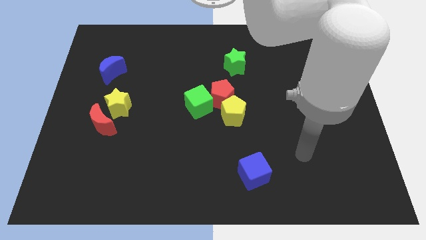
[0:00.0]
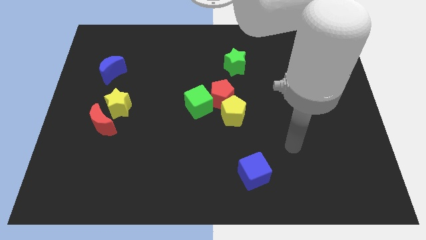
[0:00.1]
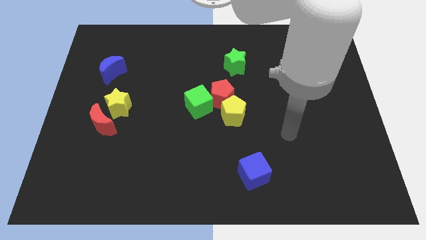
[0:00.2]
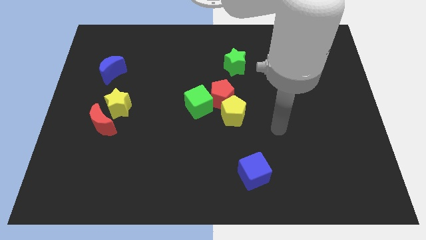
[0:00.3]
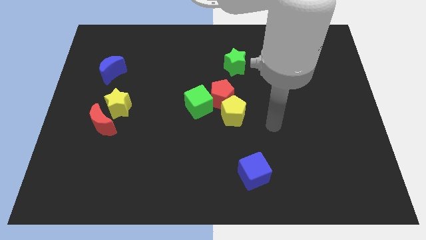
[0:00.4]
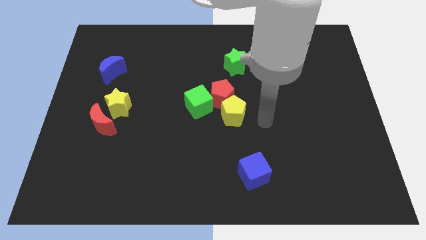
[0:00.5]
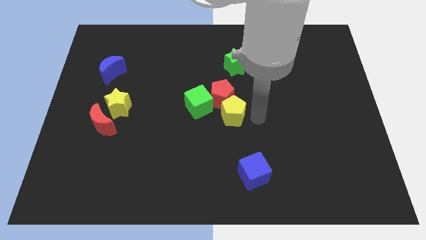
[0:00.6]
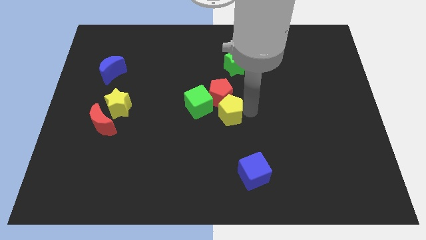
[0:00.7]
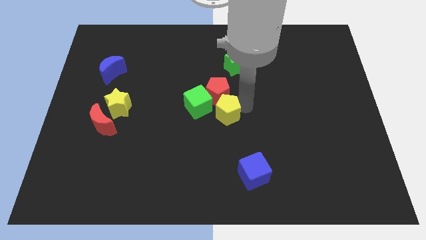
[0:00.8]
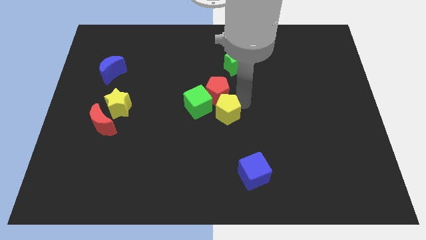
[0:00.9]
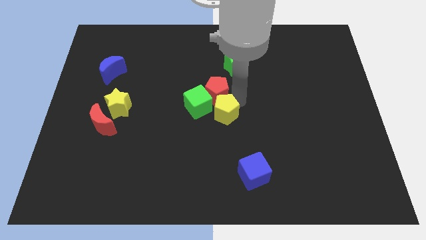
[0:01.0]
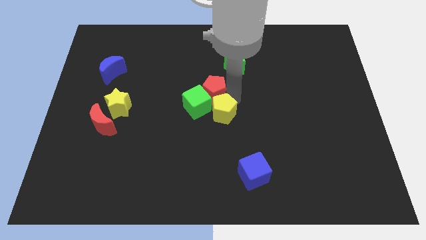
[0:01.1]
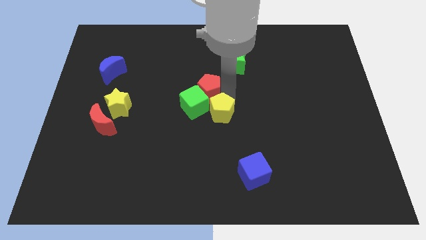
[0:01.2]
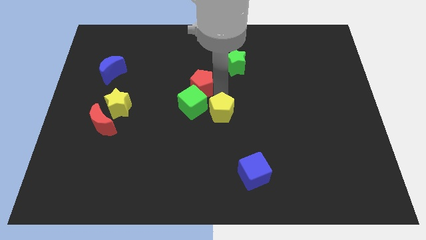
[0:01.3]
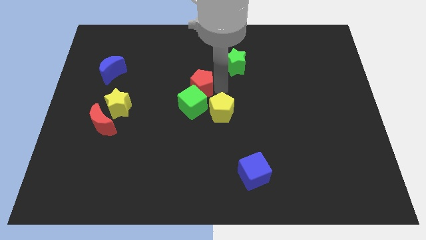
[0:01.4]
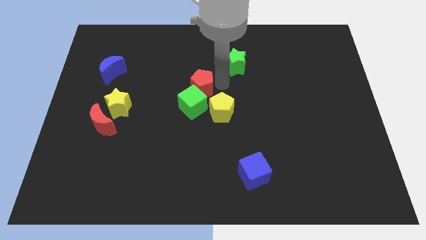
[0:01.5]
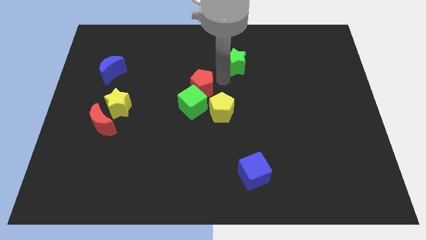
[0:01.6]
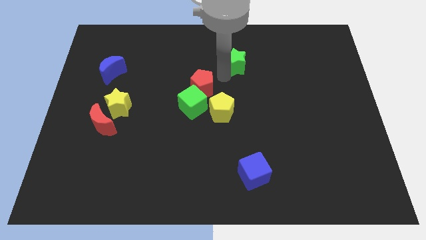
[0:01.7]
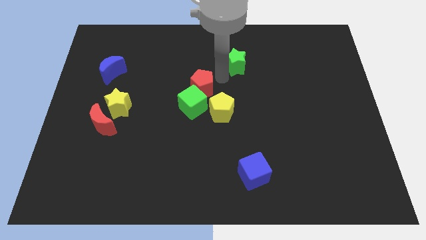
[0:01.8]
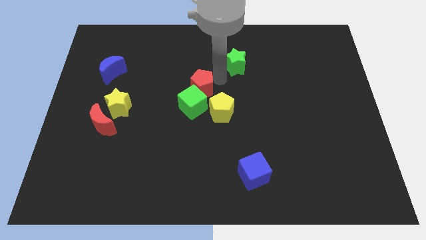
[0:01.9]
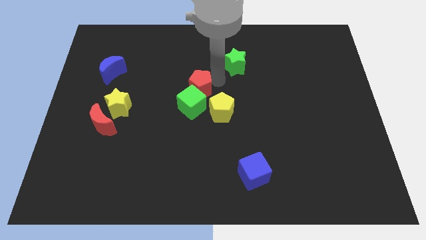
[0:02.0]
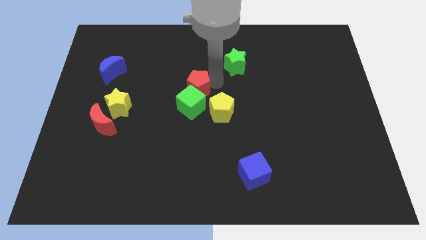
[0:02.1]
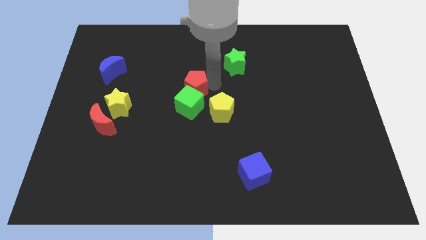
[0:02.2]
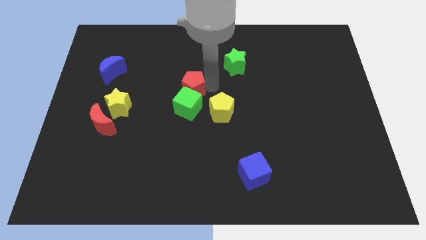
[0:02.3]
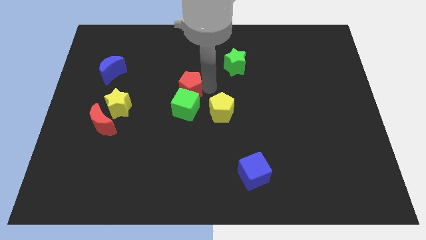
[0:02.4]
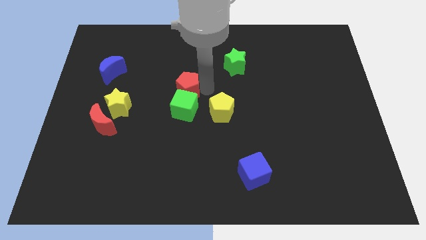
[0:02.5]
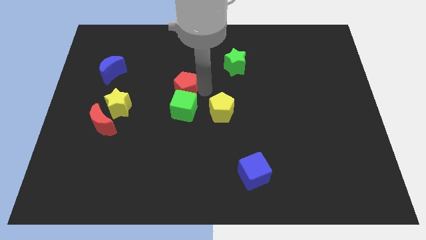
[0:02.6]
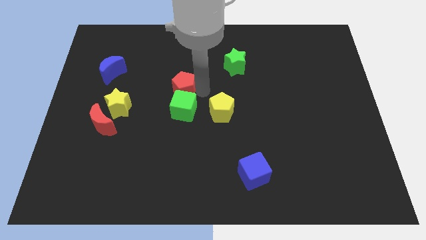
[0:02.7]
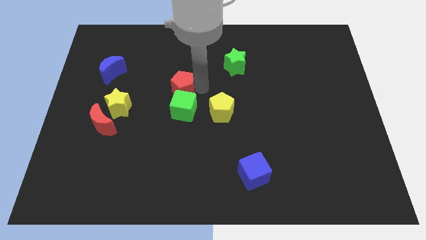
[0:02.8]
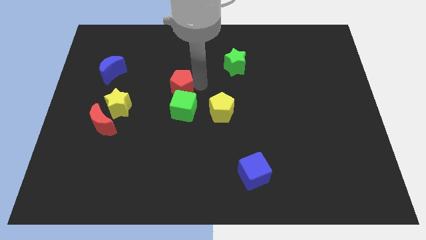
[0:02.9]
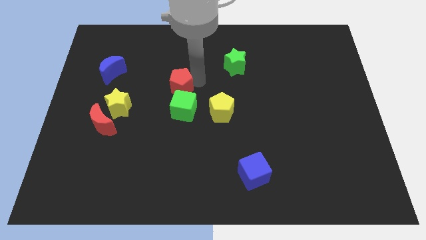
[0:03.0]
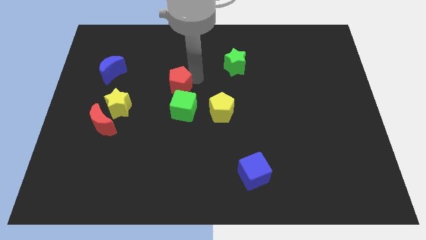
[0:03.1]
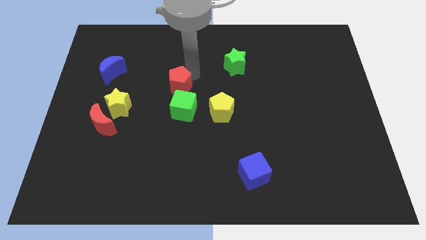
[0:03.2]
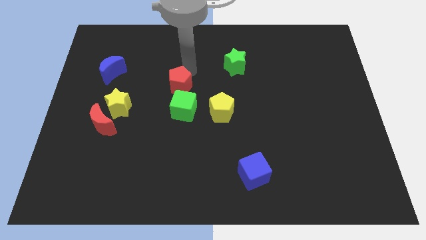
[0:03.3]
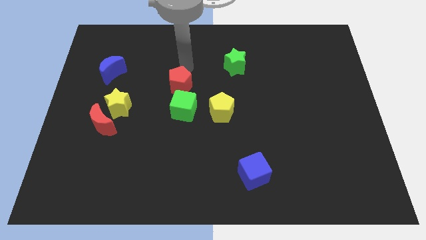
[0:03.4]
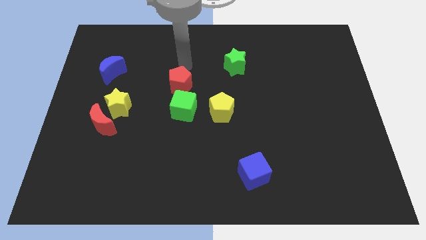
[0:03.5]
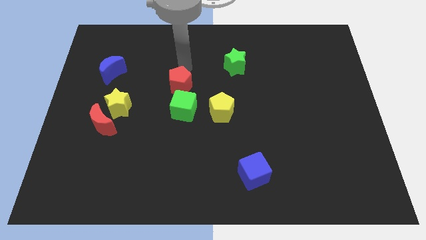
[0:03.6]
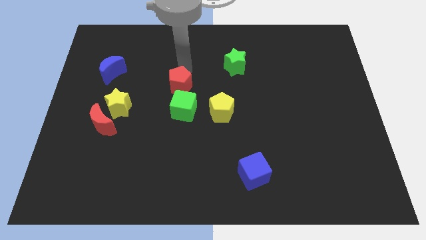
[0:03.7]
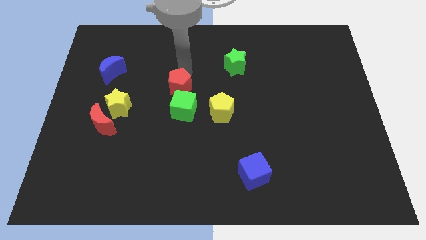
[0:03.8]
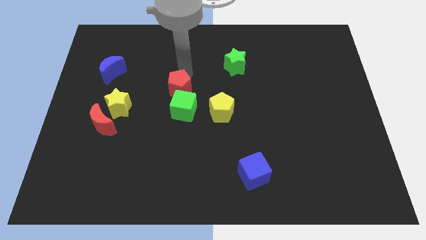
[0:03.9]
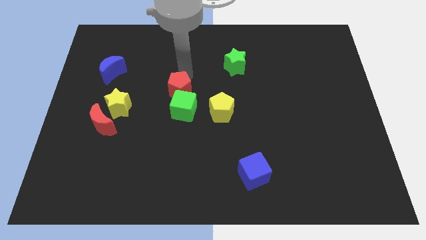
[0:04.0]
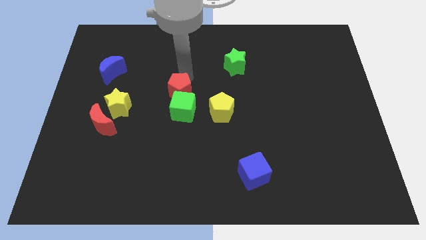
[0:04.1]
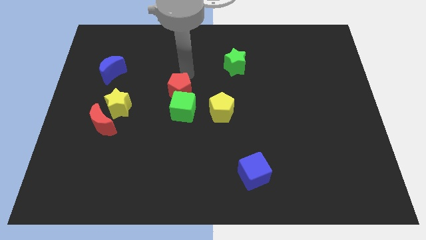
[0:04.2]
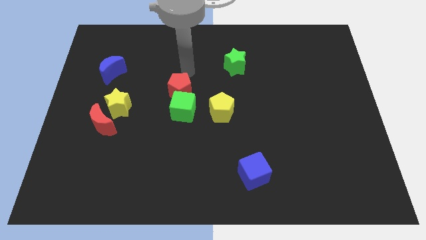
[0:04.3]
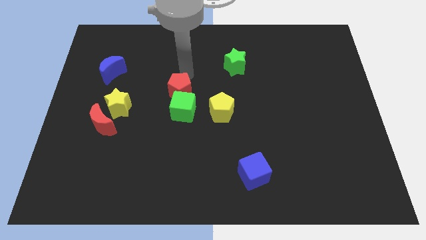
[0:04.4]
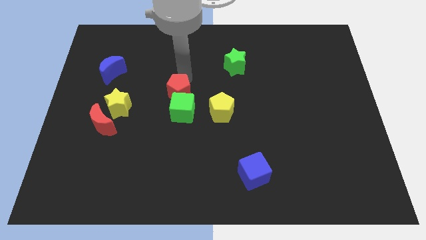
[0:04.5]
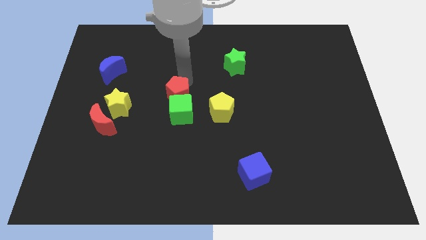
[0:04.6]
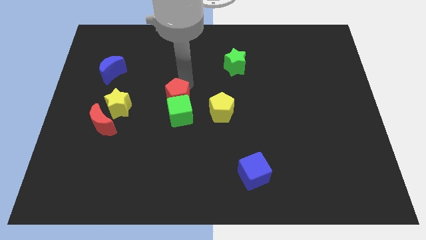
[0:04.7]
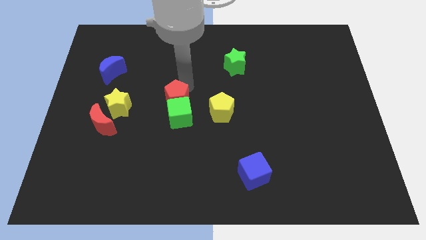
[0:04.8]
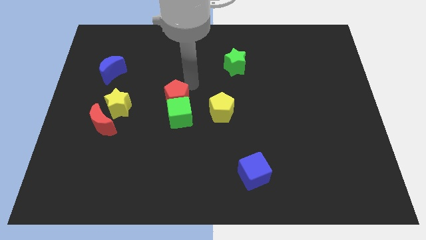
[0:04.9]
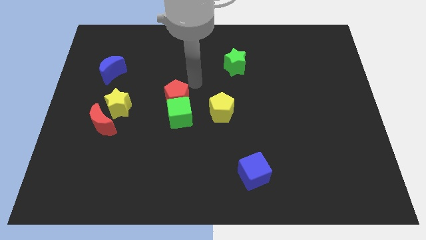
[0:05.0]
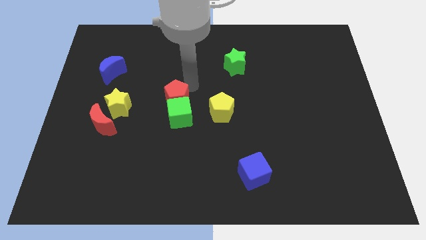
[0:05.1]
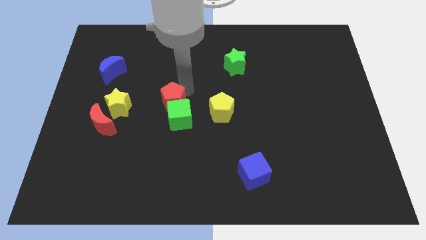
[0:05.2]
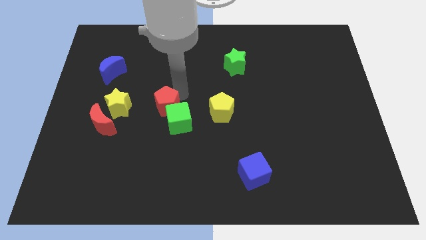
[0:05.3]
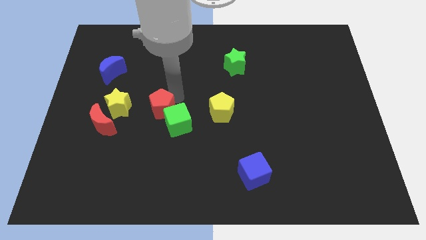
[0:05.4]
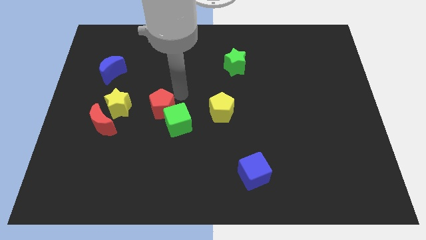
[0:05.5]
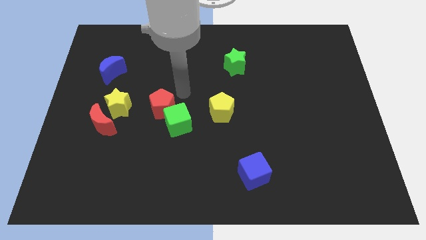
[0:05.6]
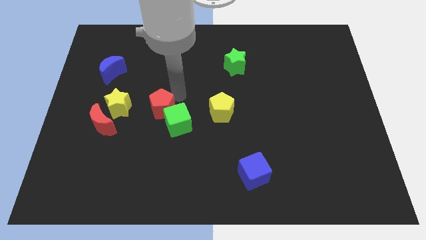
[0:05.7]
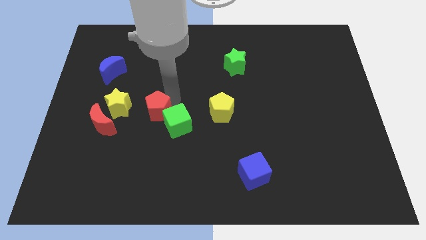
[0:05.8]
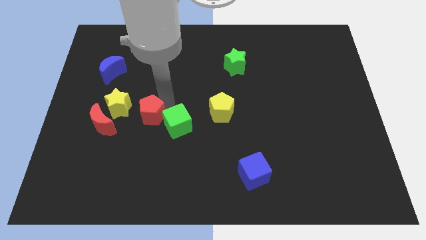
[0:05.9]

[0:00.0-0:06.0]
push the red pentagon diagonally down and to the right of the yellow star

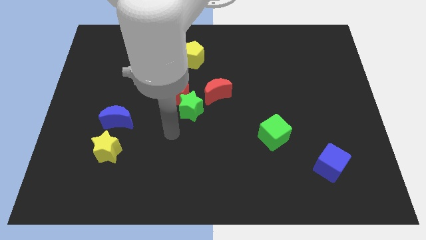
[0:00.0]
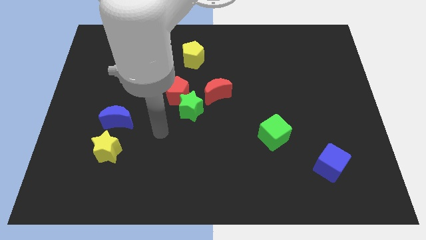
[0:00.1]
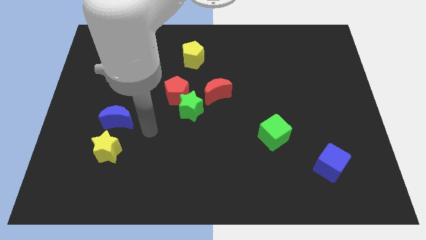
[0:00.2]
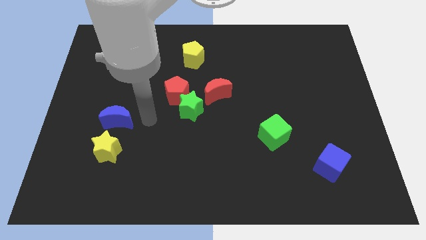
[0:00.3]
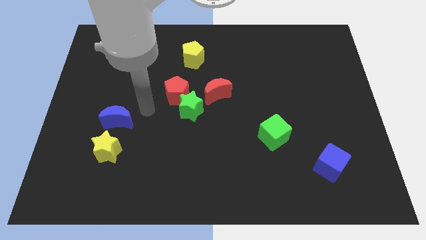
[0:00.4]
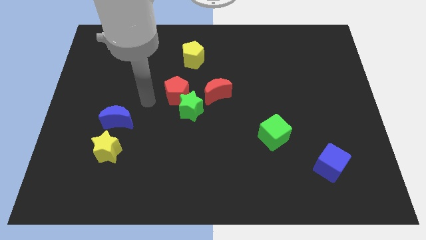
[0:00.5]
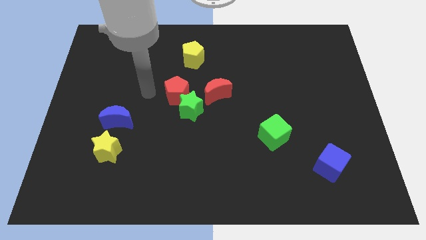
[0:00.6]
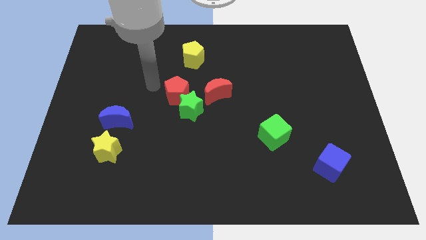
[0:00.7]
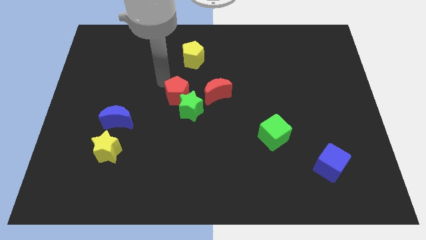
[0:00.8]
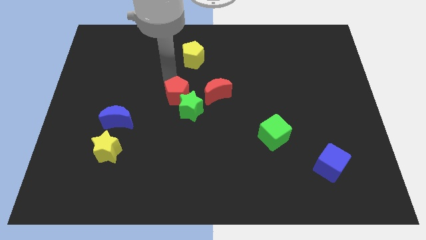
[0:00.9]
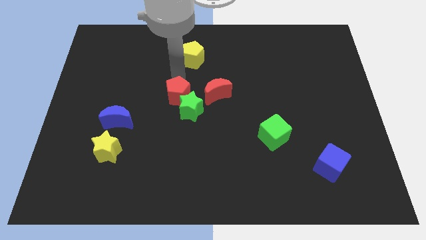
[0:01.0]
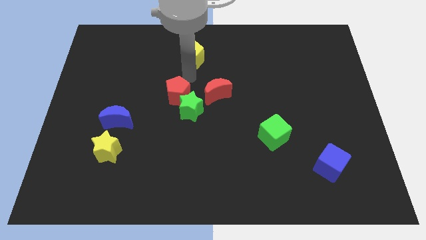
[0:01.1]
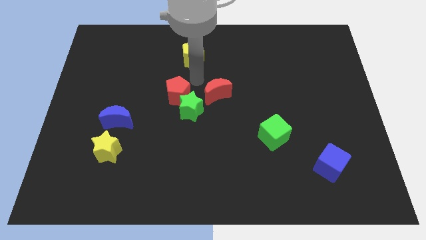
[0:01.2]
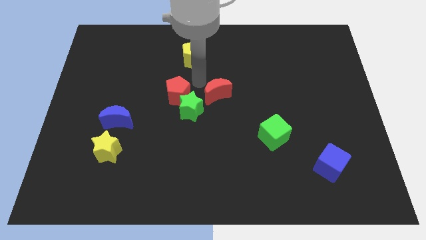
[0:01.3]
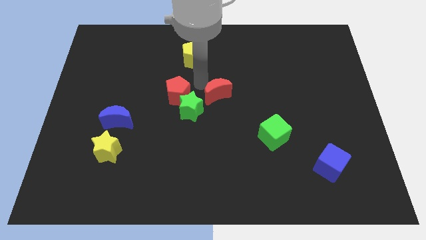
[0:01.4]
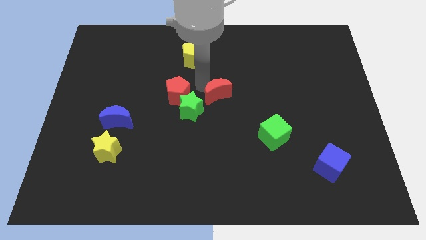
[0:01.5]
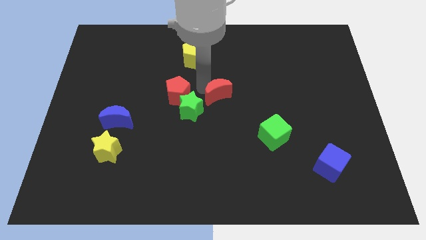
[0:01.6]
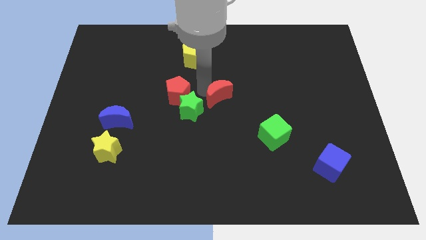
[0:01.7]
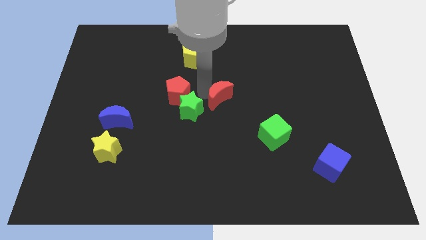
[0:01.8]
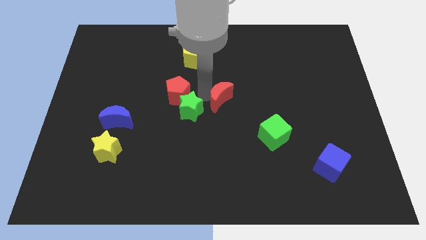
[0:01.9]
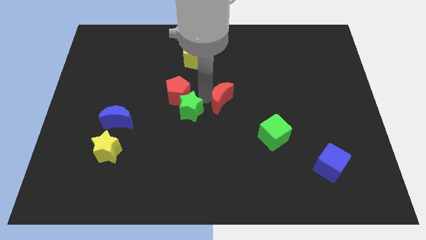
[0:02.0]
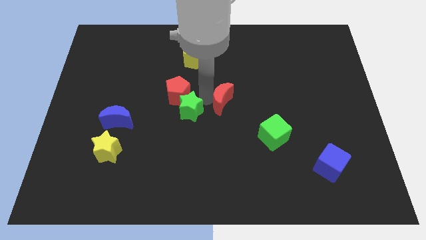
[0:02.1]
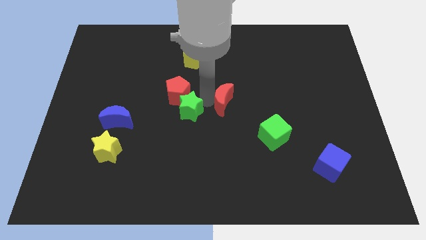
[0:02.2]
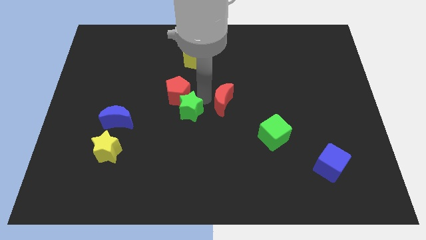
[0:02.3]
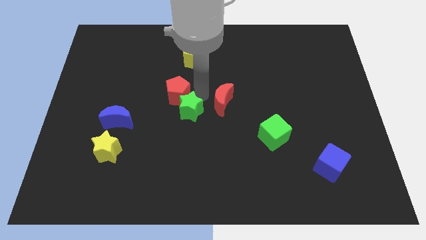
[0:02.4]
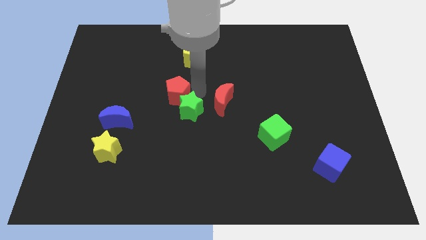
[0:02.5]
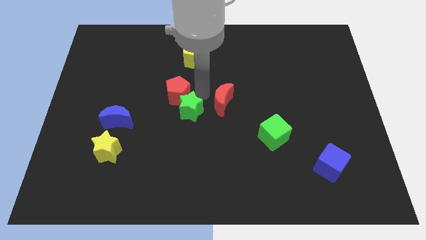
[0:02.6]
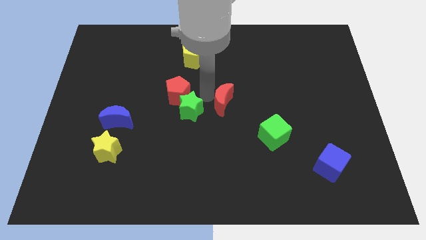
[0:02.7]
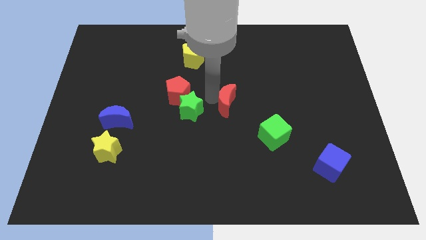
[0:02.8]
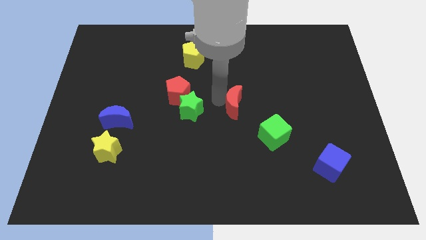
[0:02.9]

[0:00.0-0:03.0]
push the red moon to the top left of the green cube
